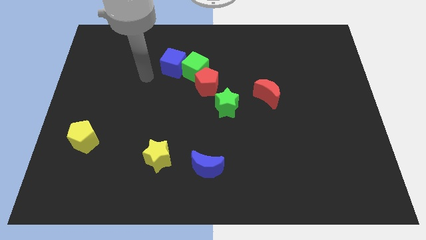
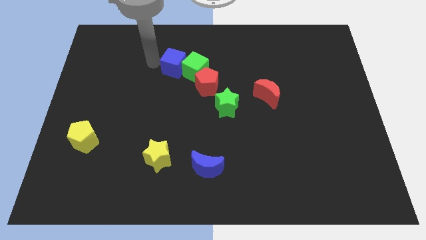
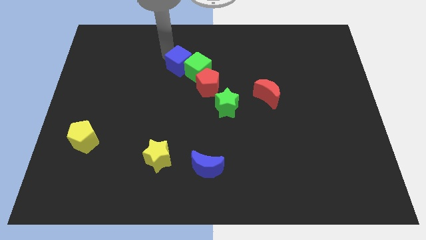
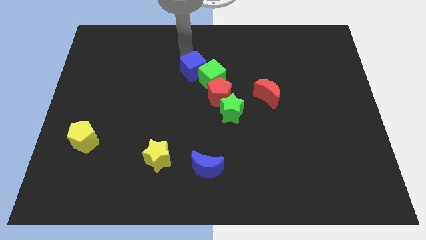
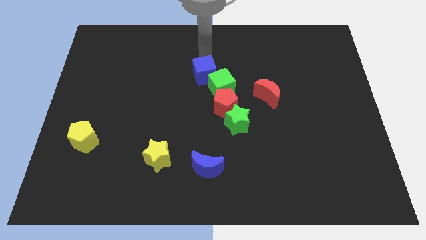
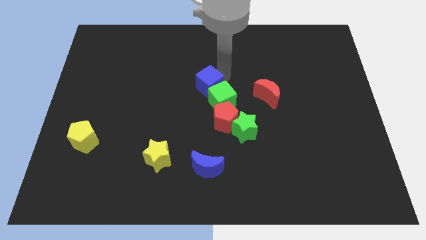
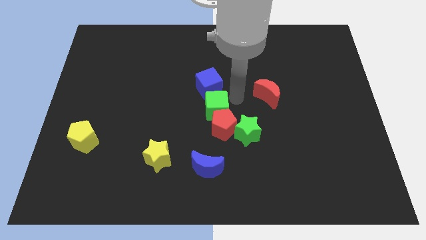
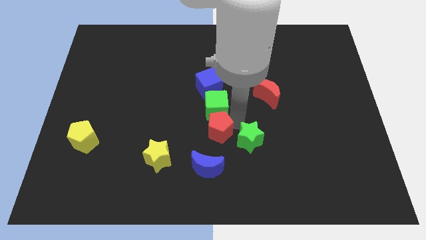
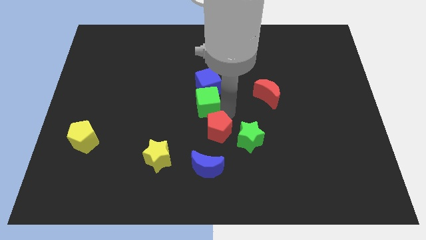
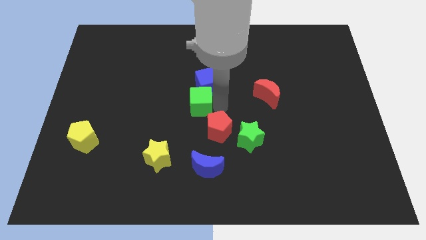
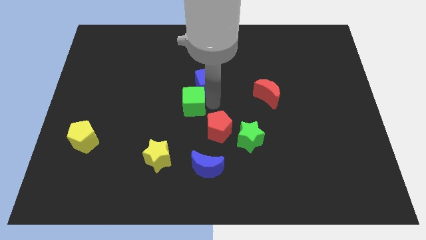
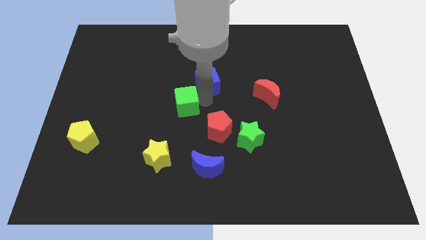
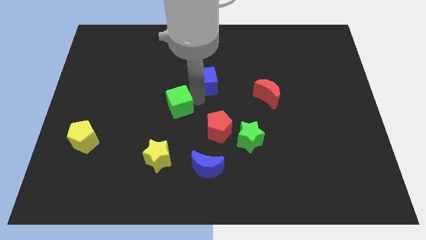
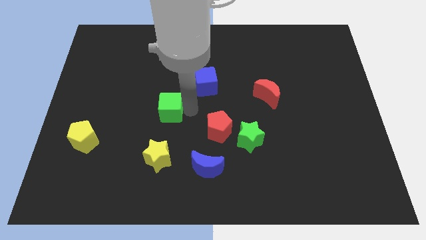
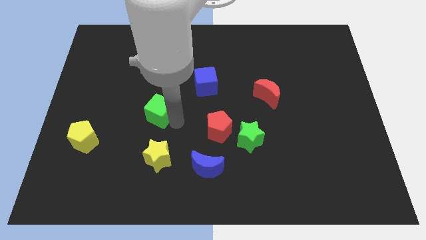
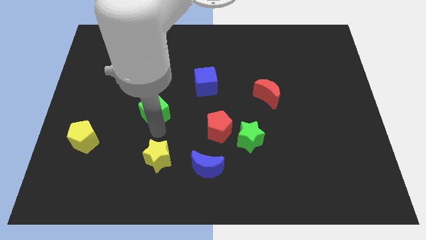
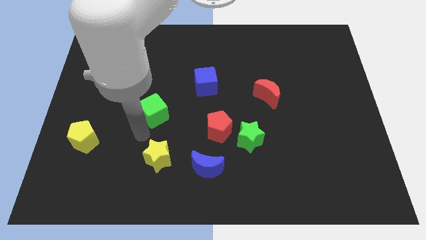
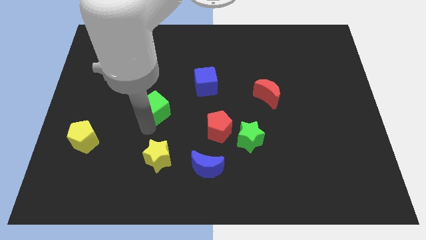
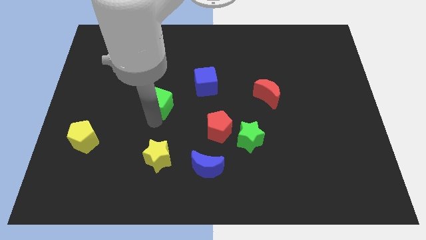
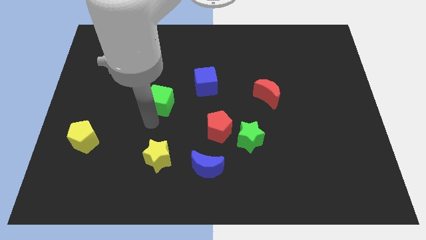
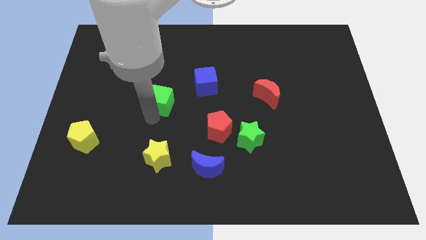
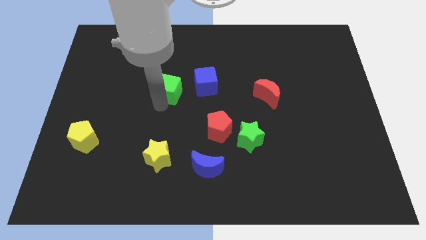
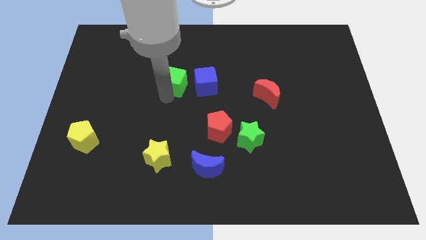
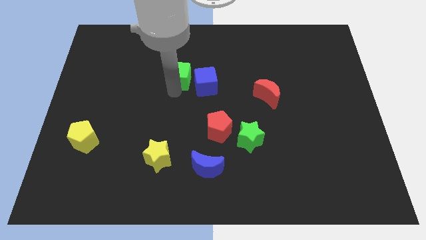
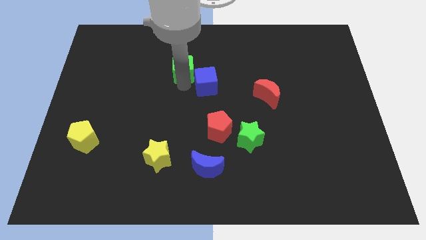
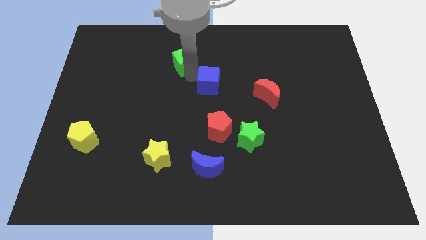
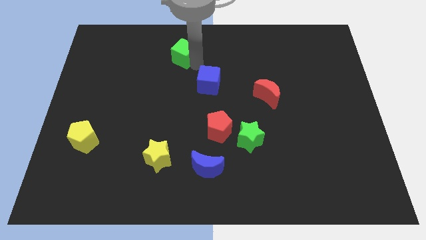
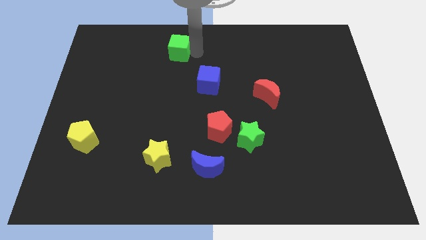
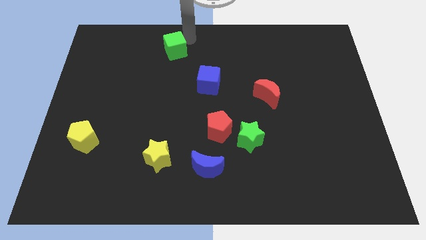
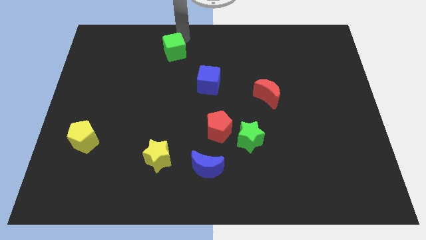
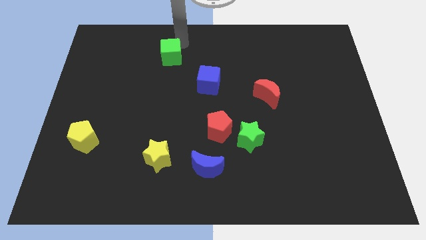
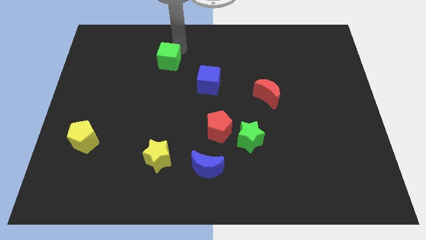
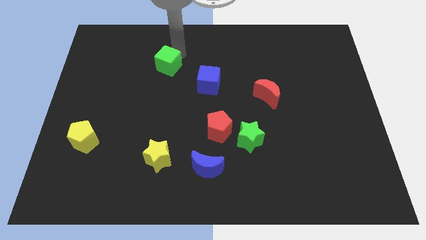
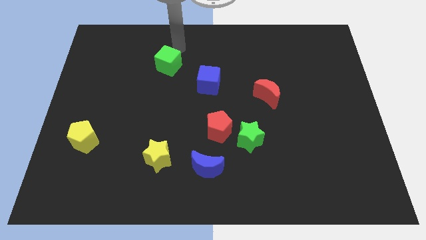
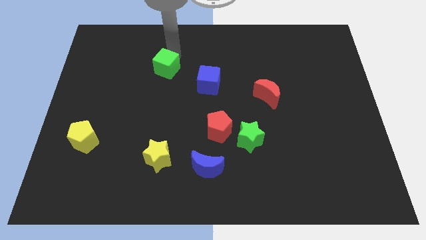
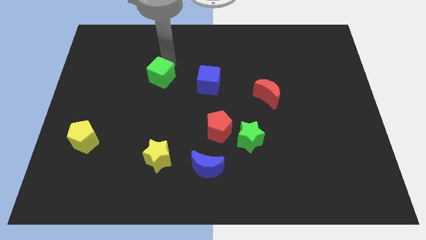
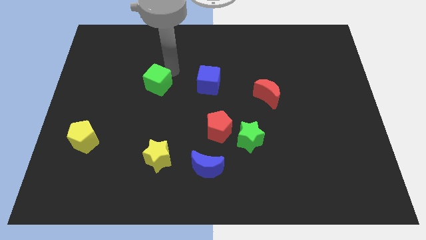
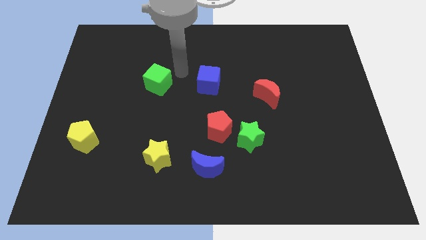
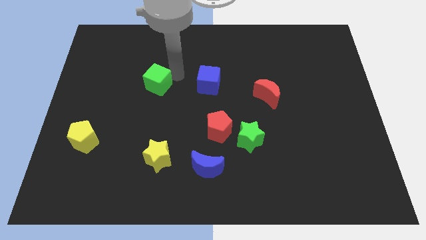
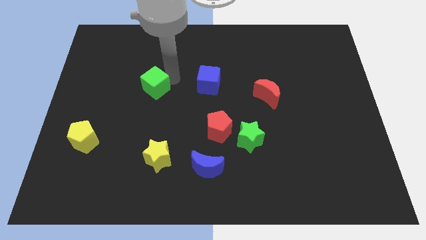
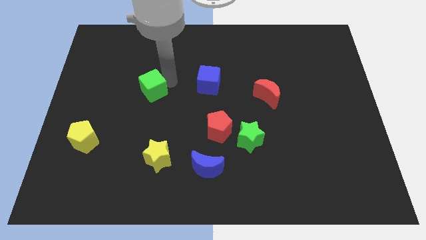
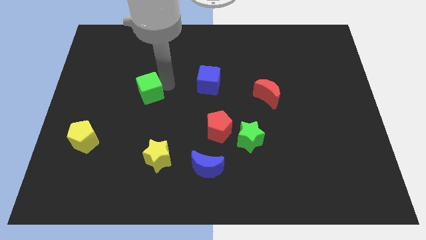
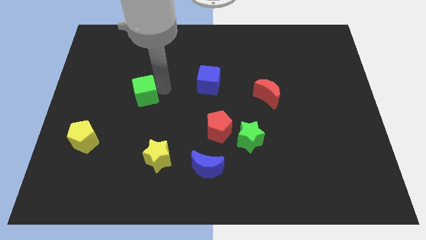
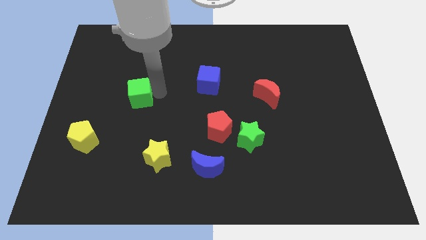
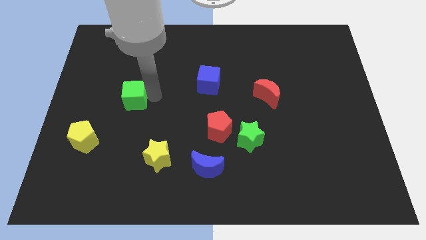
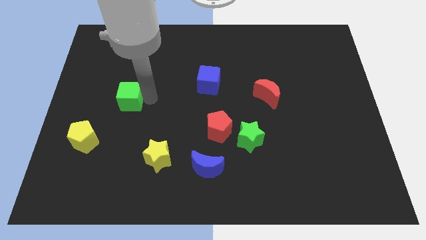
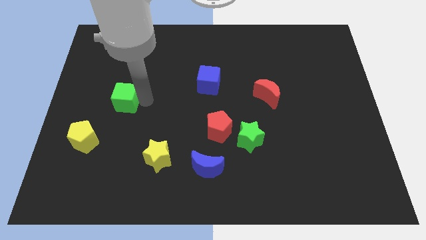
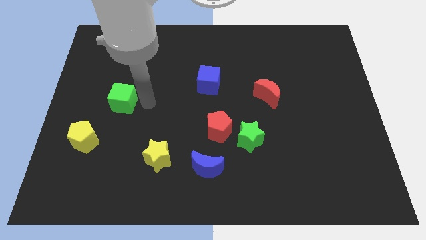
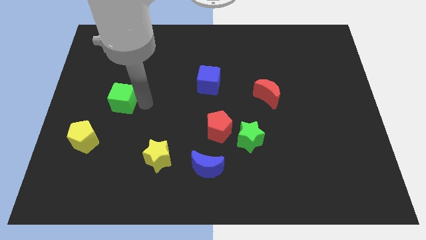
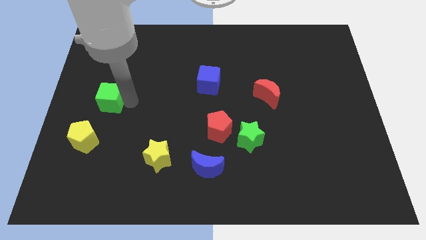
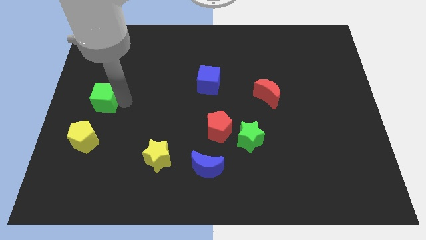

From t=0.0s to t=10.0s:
move the green cube to the left side

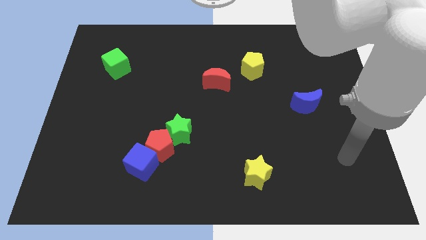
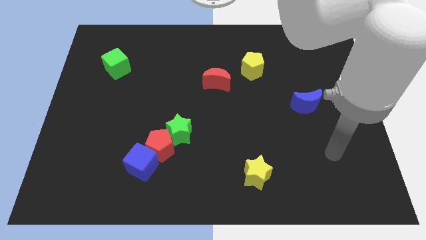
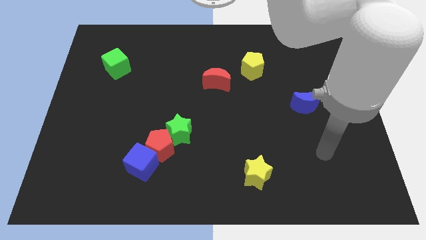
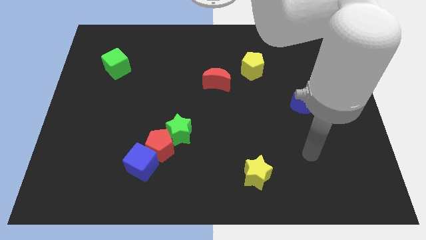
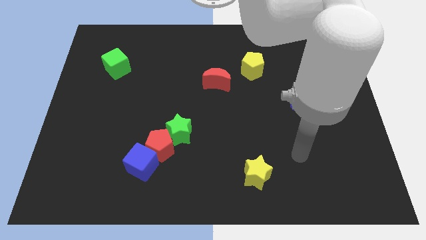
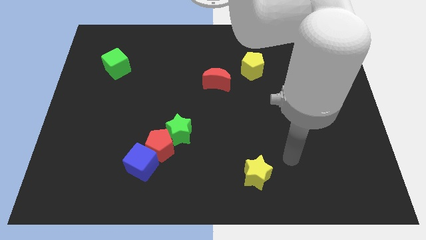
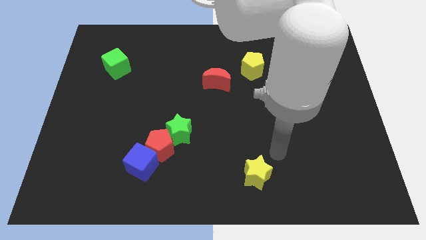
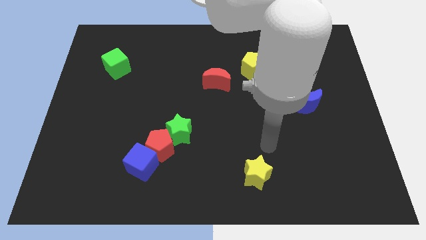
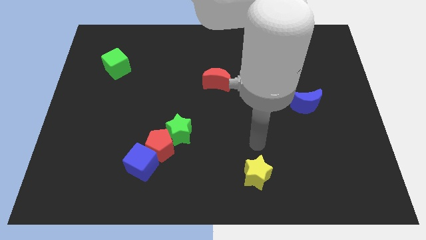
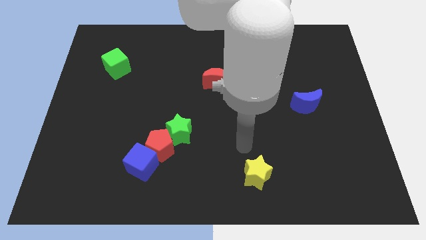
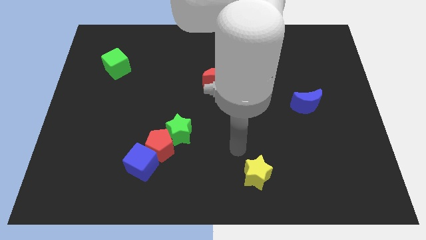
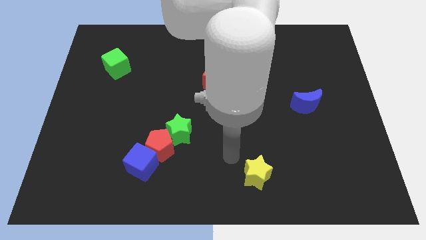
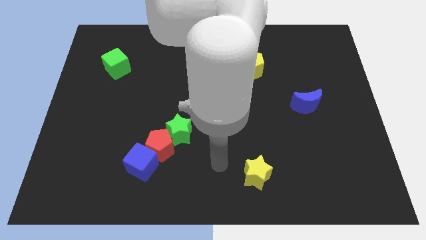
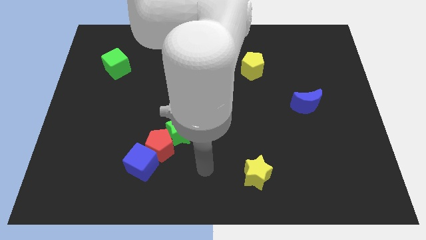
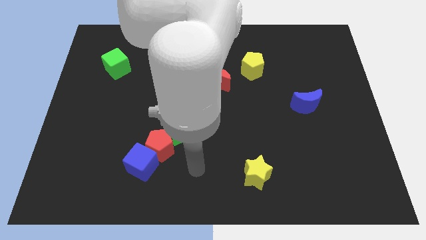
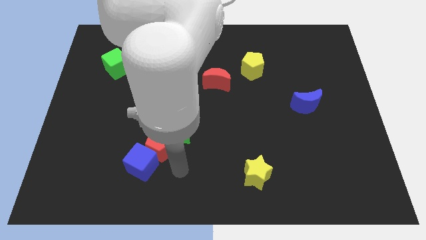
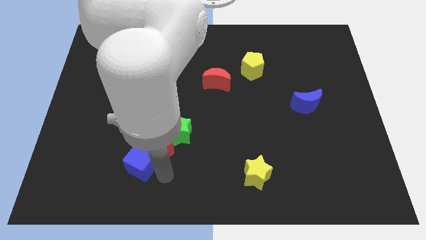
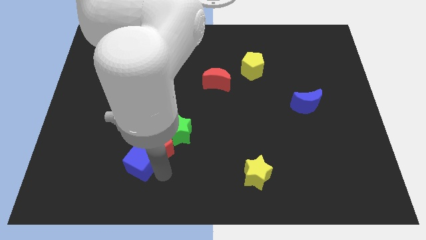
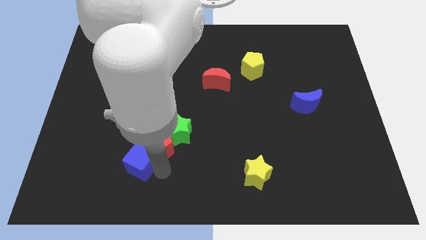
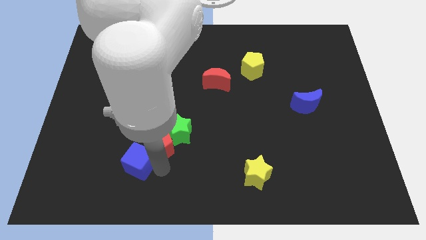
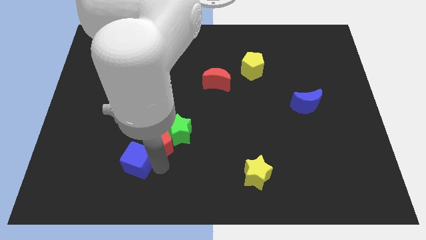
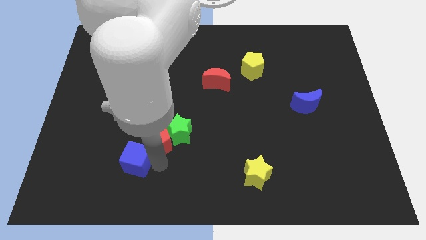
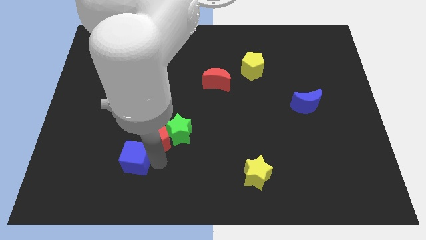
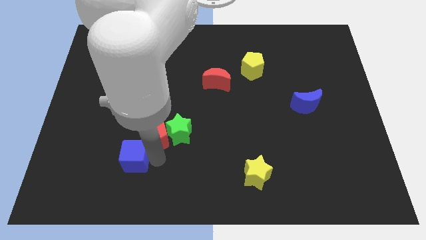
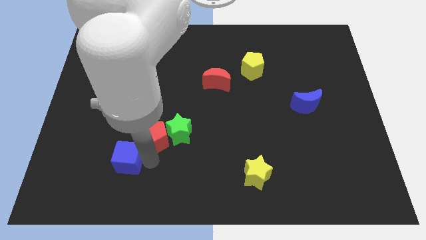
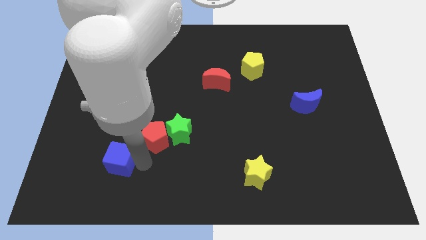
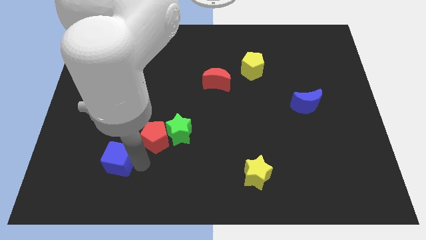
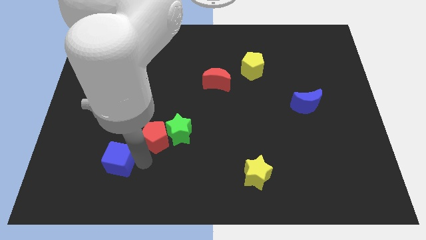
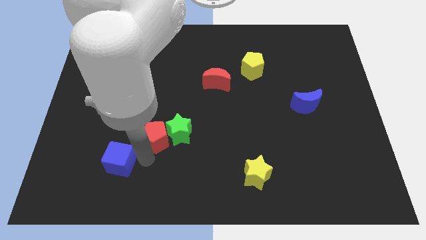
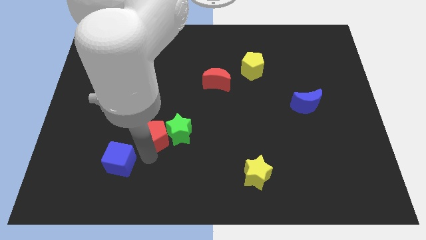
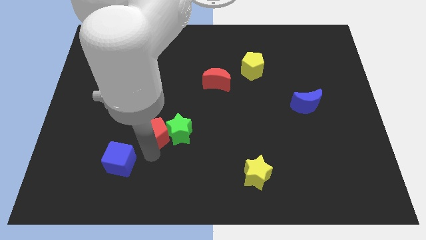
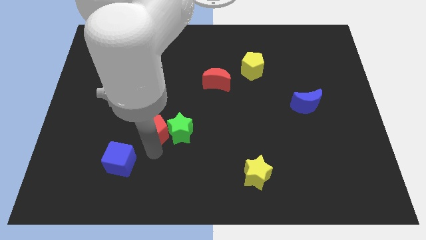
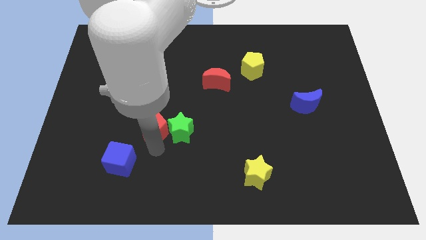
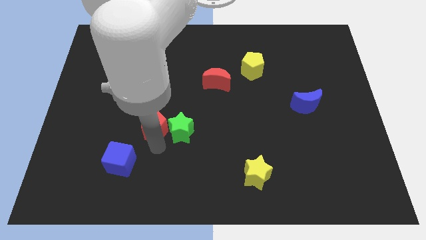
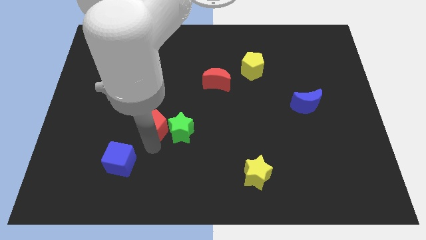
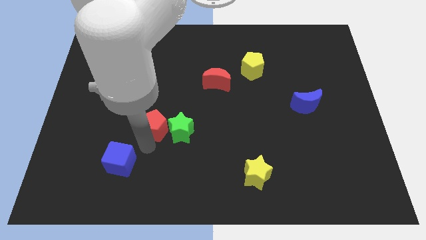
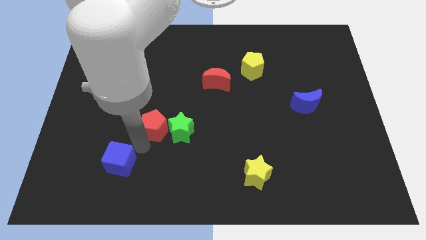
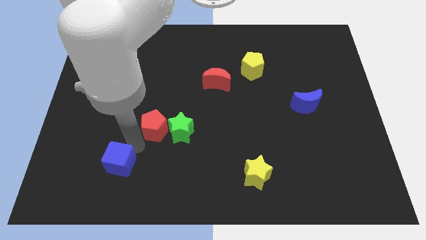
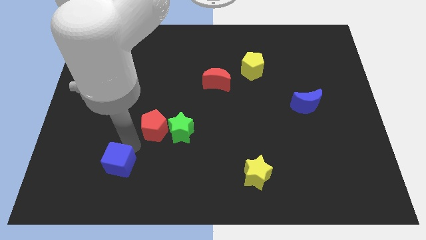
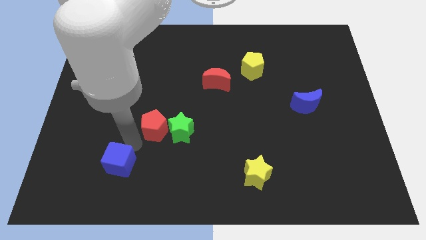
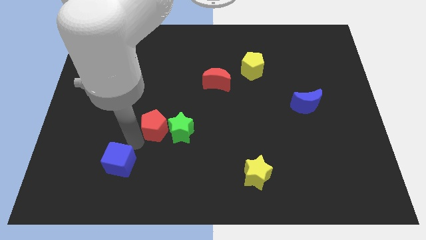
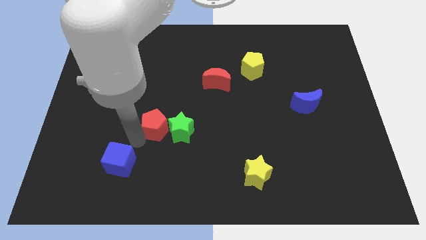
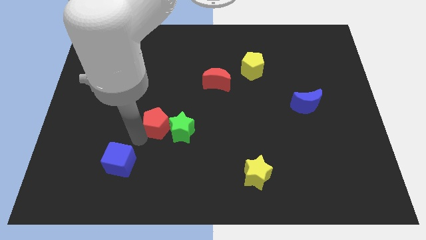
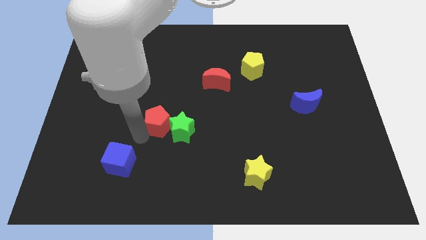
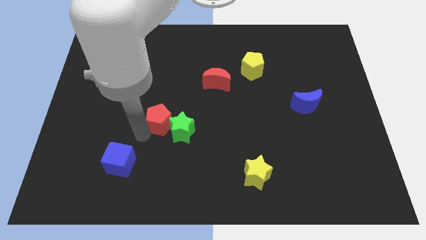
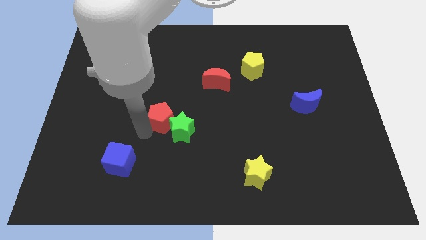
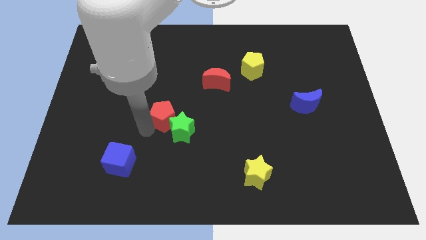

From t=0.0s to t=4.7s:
push the red pentagon to the middle
